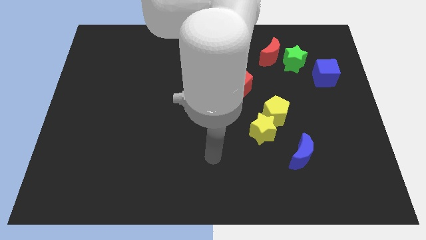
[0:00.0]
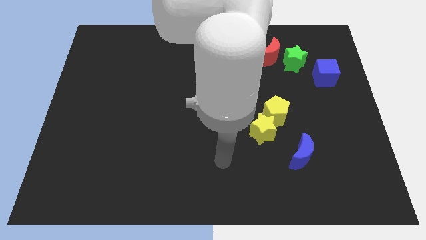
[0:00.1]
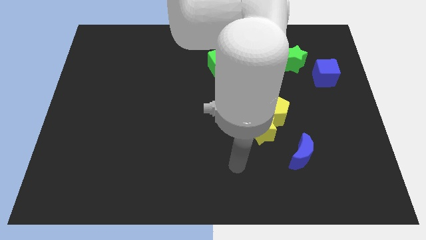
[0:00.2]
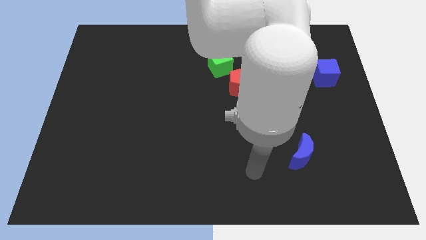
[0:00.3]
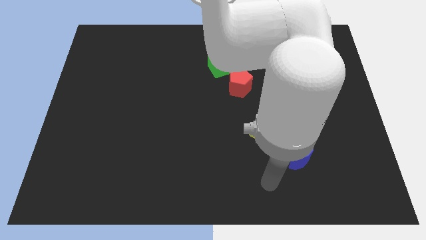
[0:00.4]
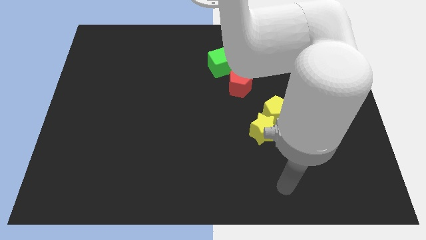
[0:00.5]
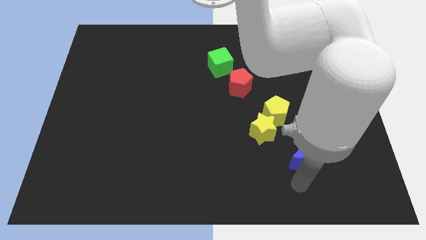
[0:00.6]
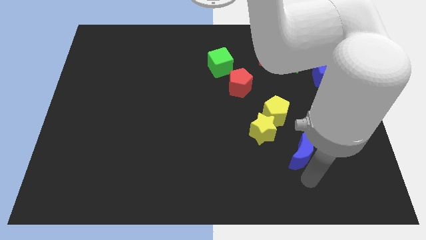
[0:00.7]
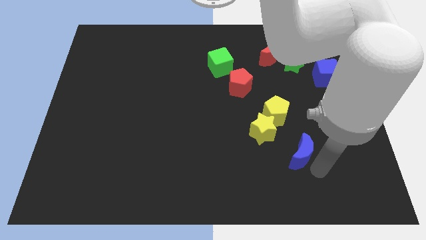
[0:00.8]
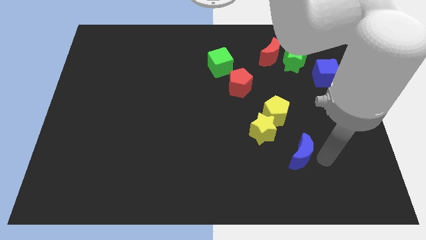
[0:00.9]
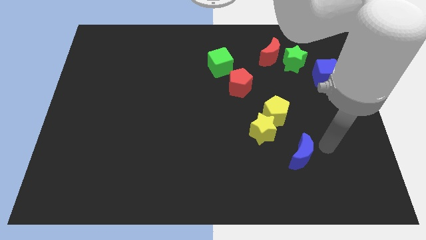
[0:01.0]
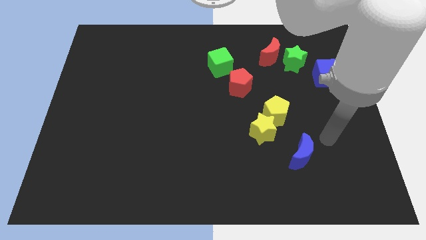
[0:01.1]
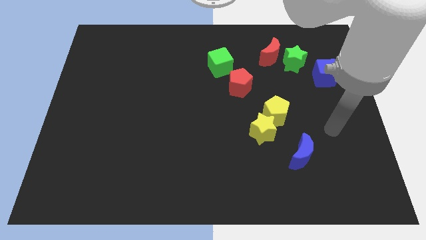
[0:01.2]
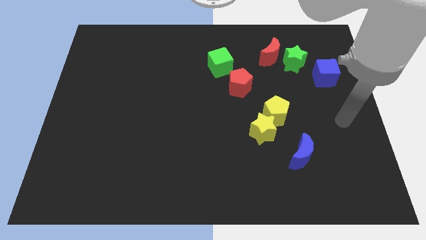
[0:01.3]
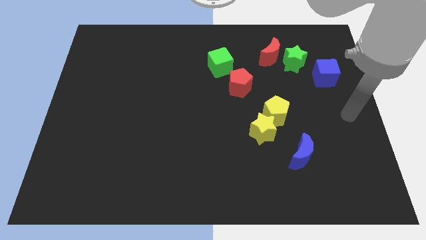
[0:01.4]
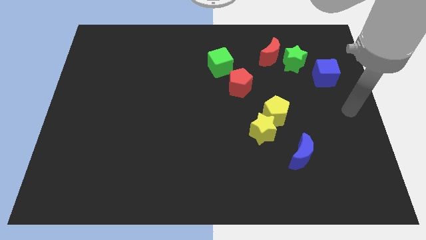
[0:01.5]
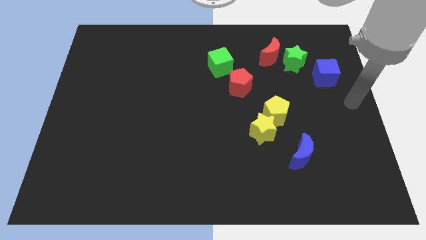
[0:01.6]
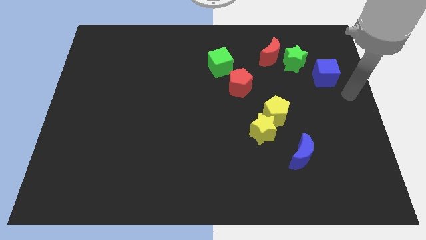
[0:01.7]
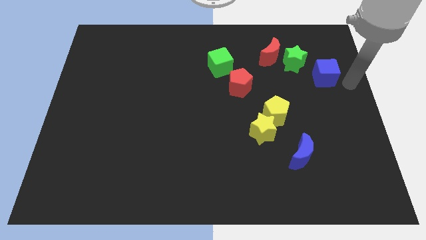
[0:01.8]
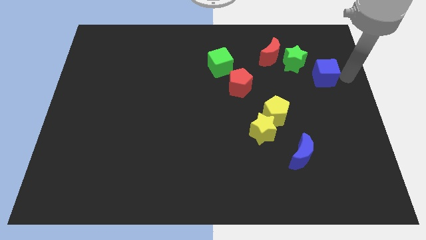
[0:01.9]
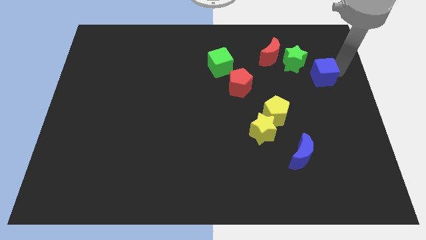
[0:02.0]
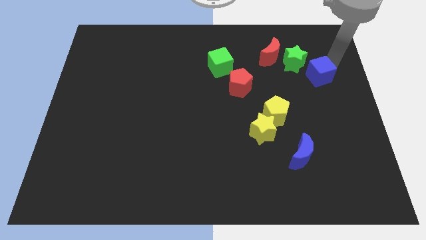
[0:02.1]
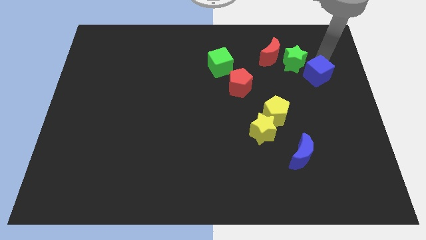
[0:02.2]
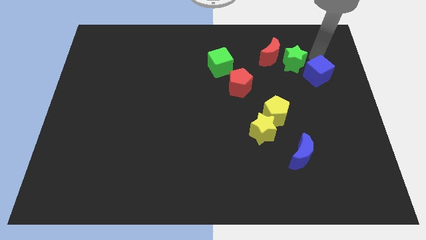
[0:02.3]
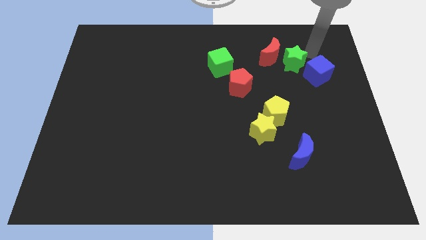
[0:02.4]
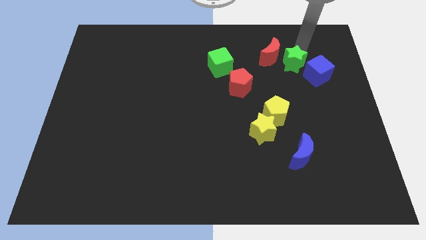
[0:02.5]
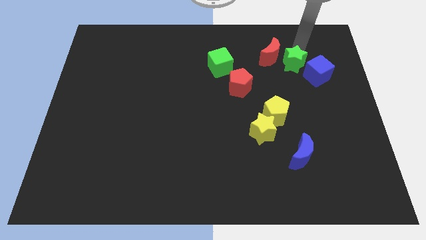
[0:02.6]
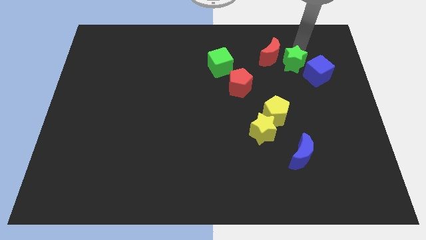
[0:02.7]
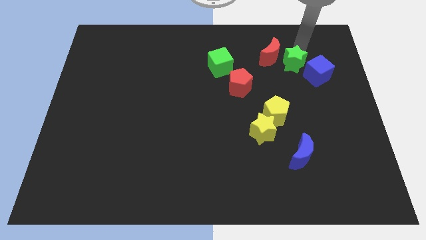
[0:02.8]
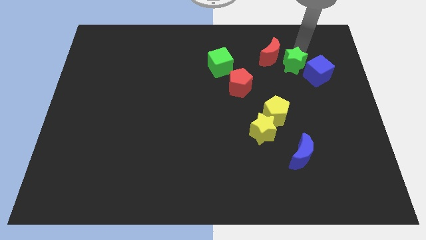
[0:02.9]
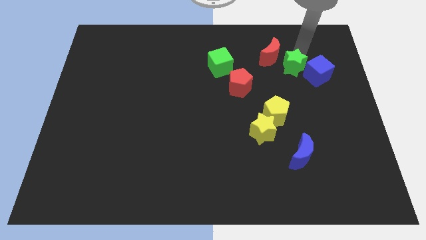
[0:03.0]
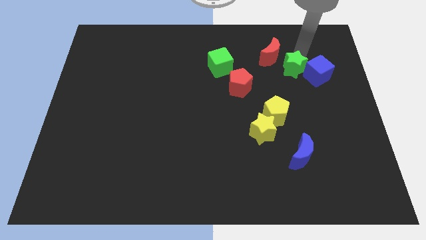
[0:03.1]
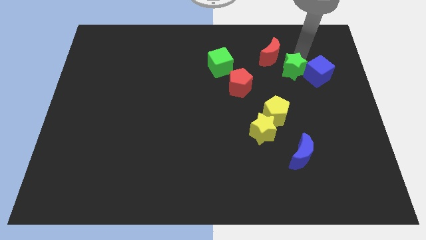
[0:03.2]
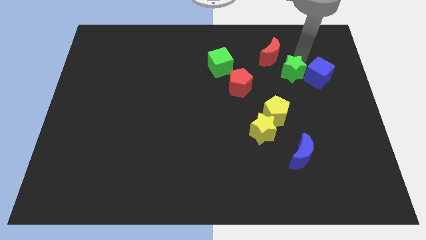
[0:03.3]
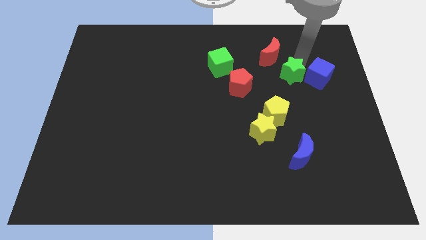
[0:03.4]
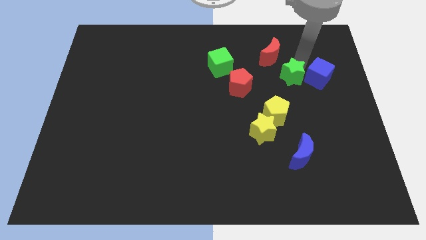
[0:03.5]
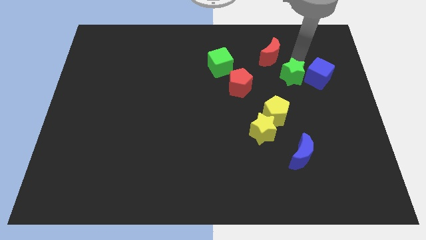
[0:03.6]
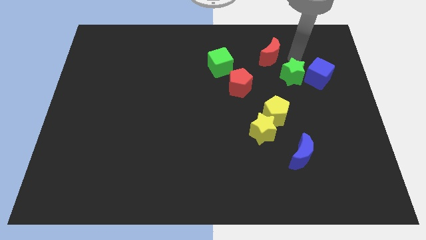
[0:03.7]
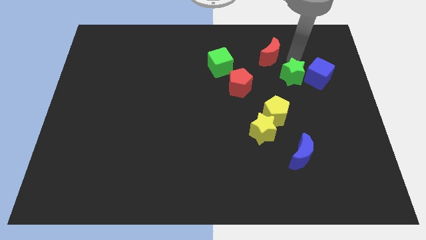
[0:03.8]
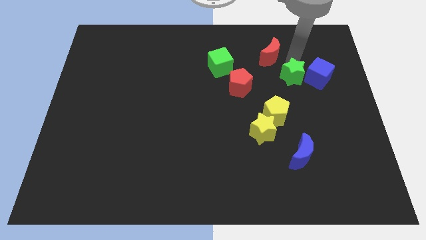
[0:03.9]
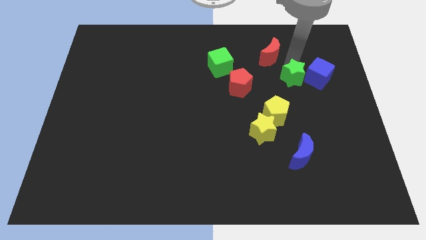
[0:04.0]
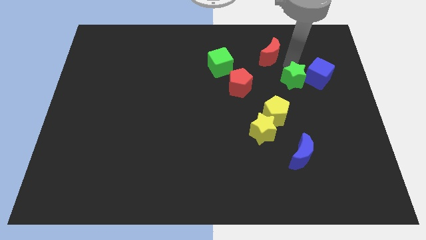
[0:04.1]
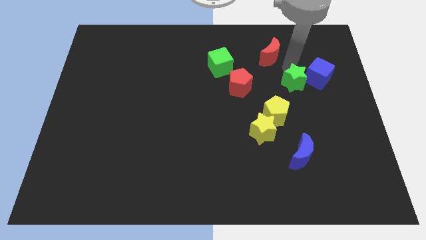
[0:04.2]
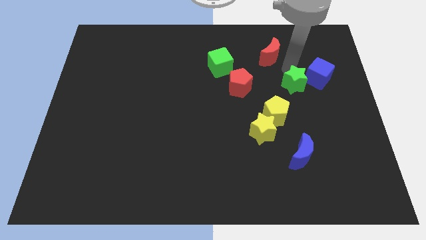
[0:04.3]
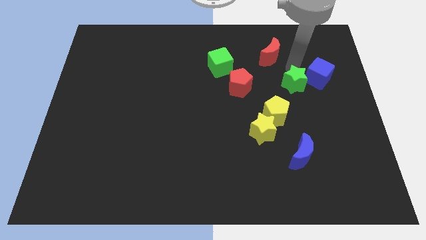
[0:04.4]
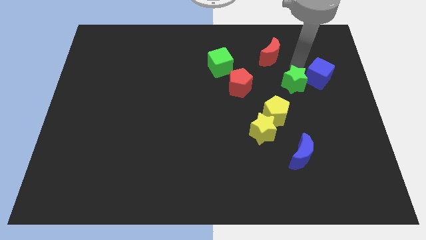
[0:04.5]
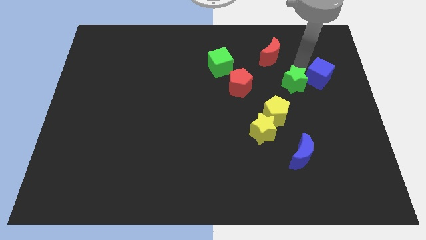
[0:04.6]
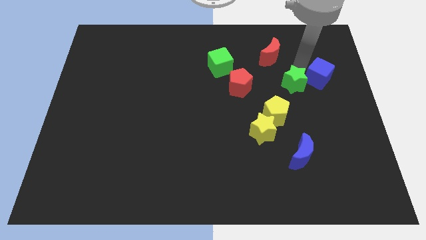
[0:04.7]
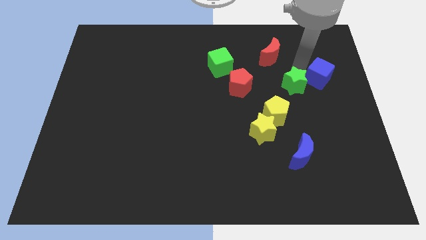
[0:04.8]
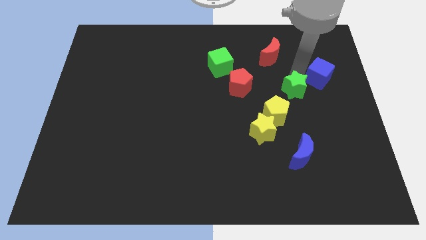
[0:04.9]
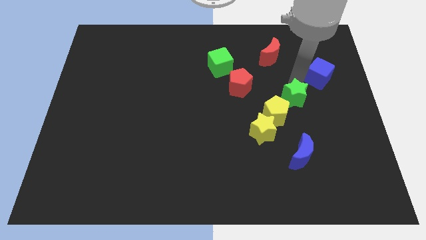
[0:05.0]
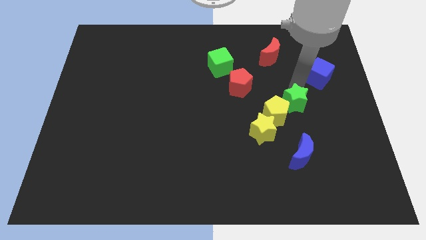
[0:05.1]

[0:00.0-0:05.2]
slide the green star towards the yellow pentagon

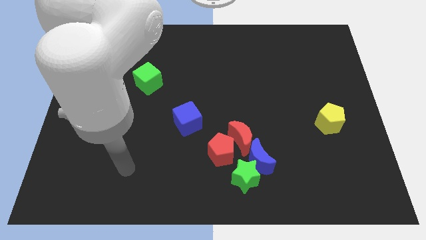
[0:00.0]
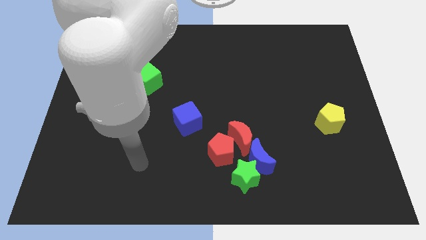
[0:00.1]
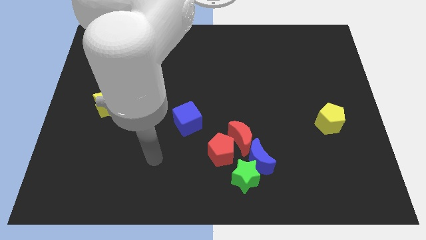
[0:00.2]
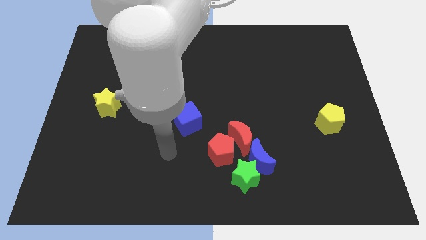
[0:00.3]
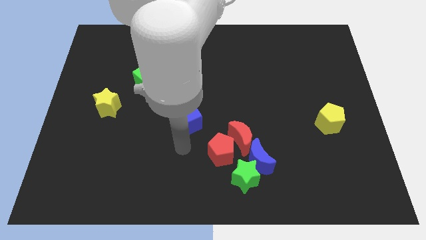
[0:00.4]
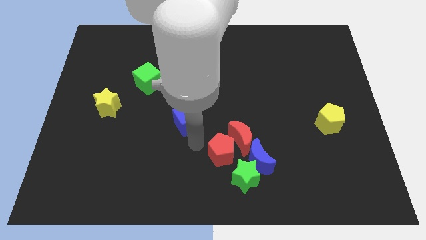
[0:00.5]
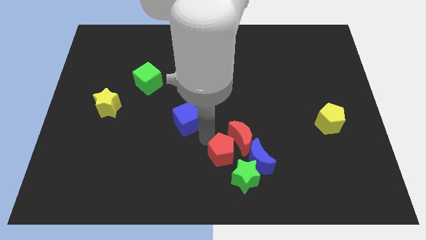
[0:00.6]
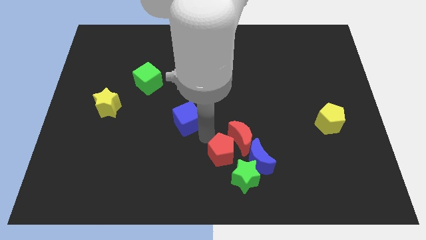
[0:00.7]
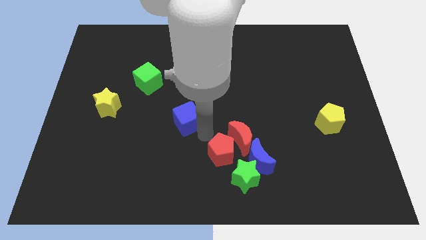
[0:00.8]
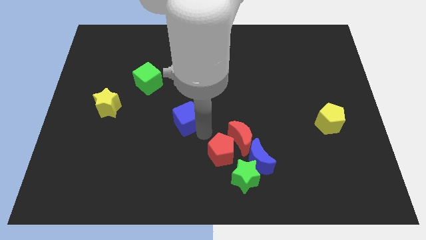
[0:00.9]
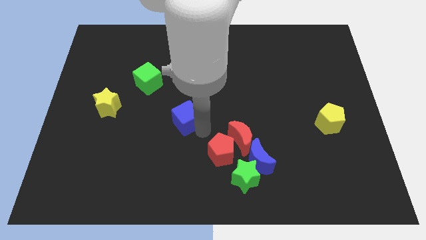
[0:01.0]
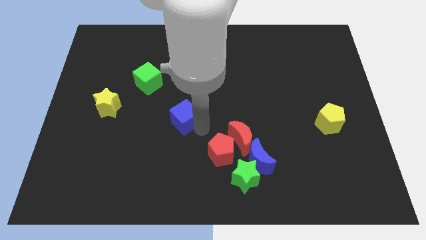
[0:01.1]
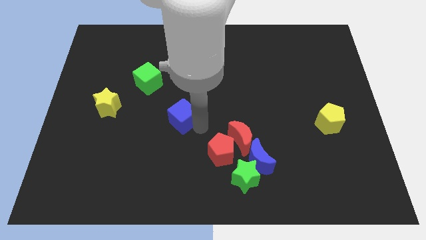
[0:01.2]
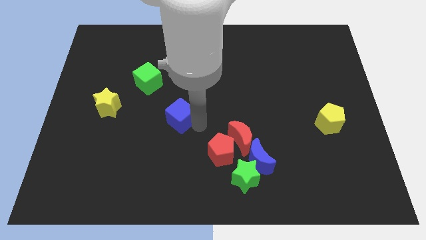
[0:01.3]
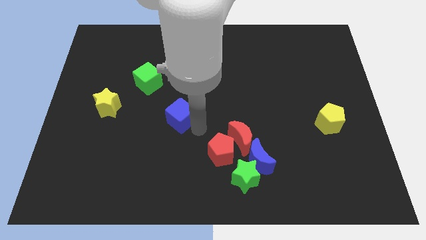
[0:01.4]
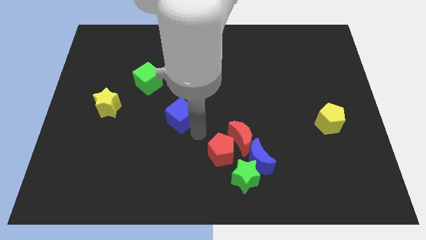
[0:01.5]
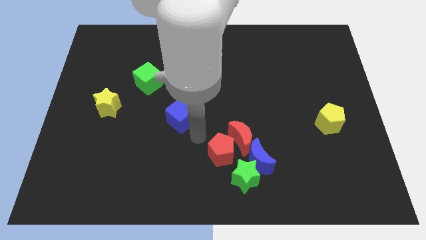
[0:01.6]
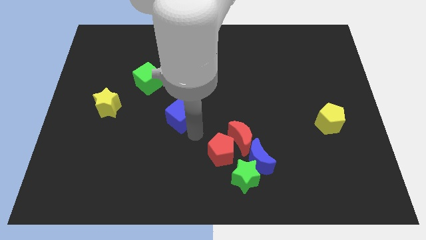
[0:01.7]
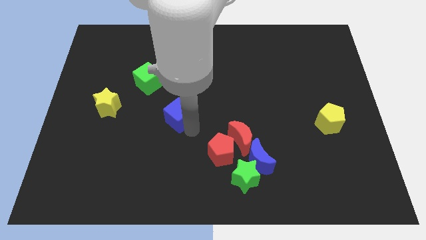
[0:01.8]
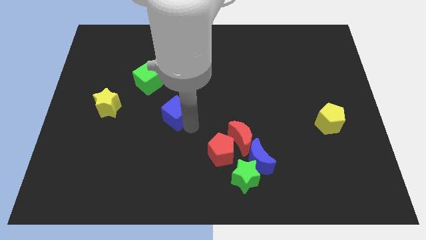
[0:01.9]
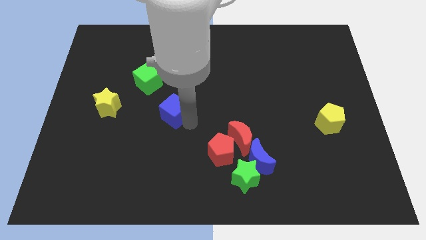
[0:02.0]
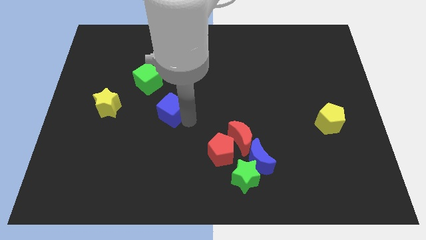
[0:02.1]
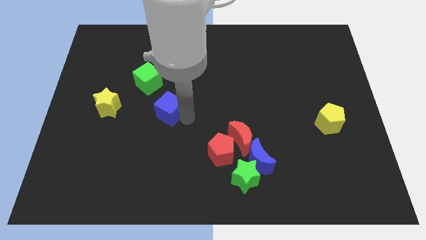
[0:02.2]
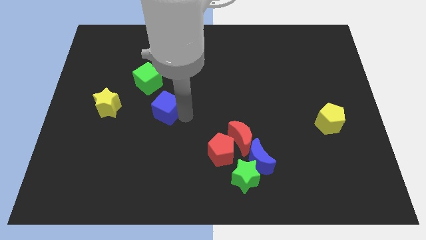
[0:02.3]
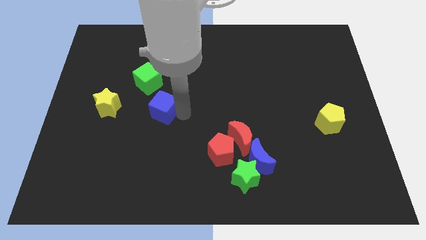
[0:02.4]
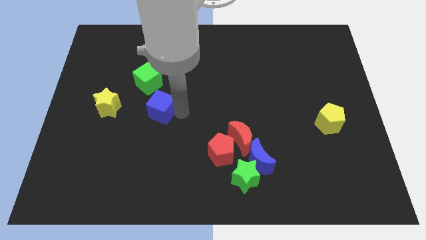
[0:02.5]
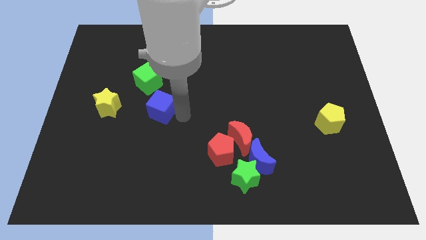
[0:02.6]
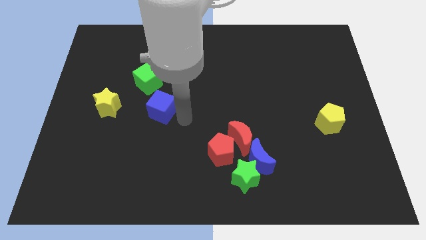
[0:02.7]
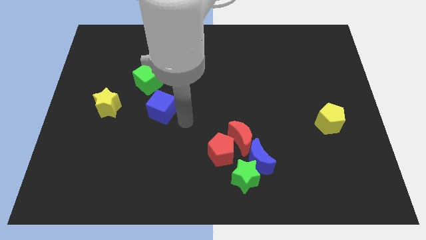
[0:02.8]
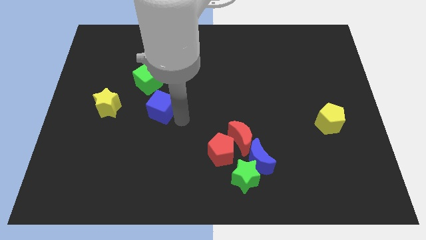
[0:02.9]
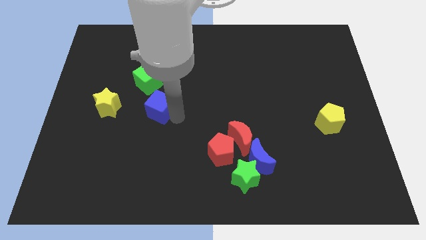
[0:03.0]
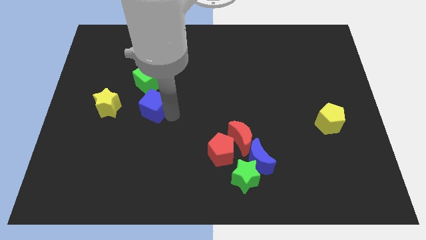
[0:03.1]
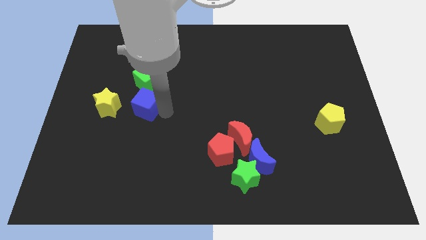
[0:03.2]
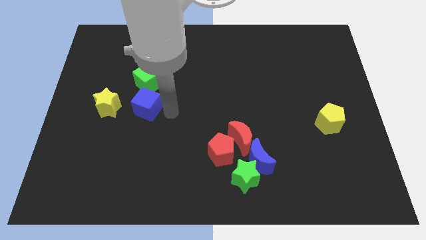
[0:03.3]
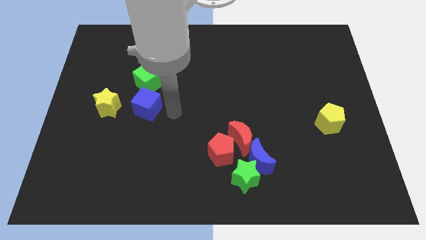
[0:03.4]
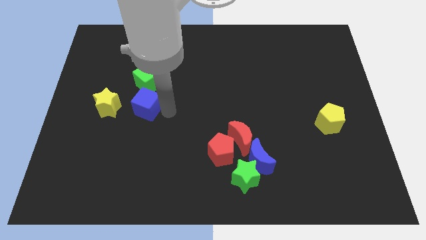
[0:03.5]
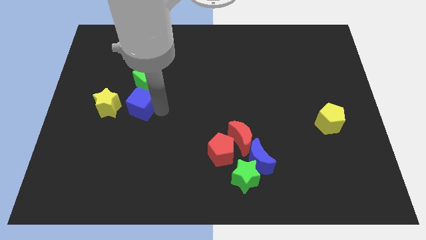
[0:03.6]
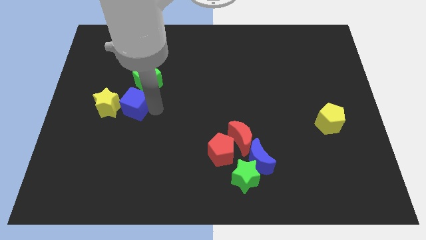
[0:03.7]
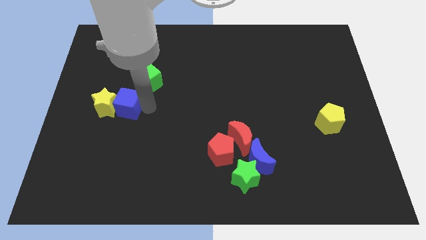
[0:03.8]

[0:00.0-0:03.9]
slide the blue cube close to the yellow star
